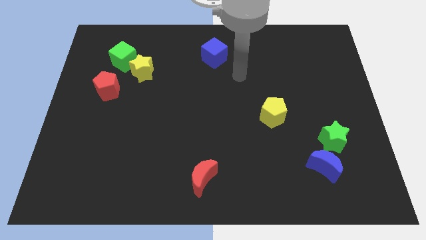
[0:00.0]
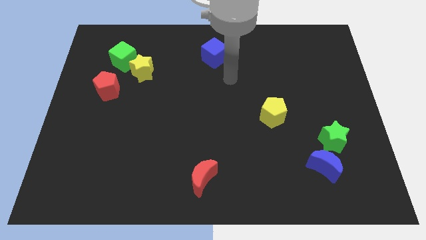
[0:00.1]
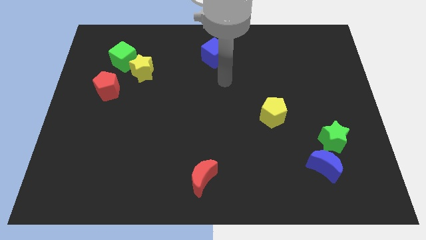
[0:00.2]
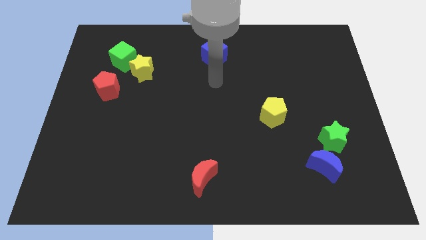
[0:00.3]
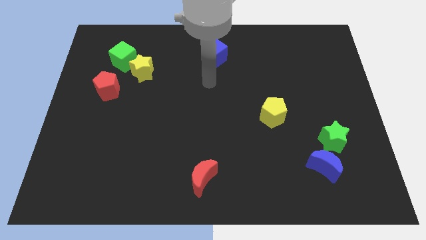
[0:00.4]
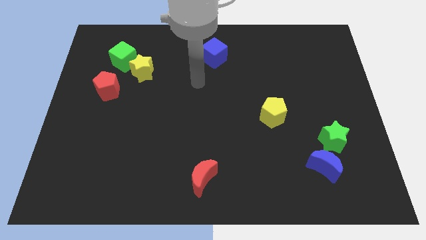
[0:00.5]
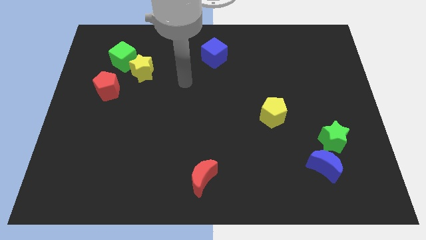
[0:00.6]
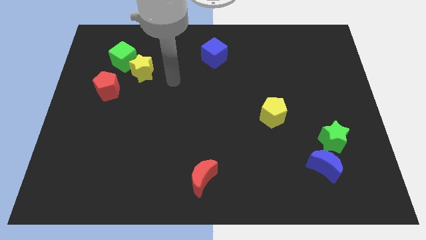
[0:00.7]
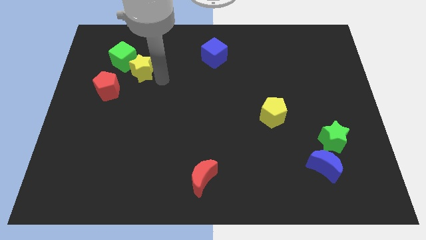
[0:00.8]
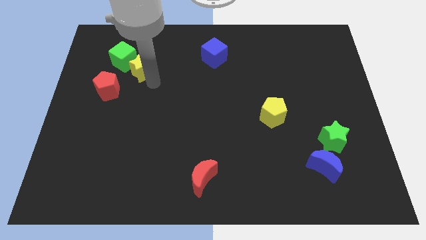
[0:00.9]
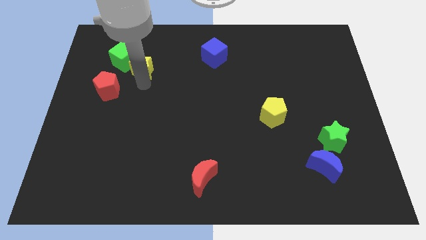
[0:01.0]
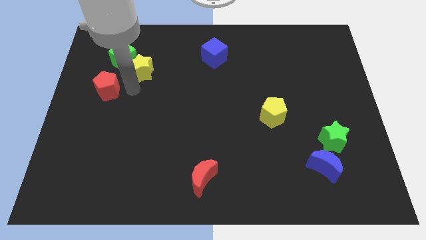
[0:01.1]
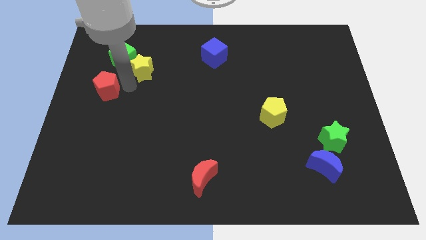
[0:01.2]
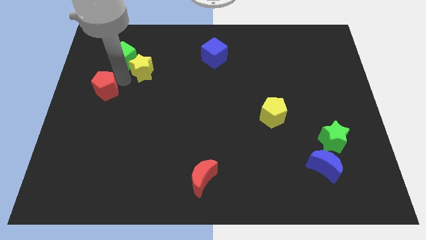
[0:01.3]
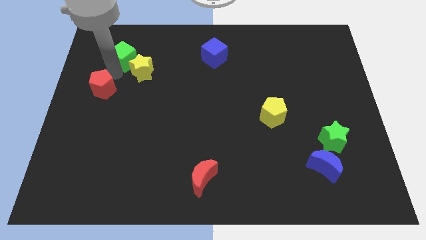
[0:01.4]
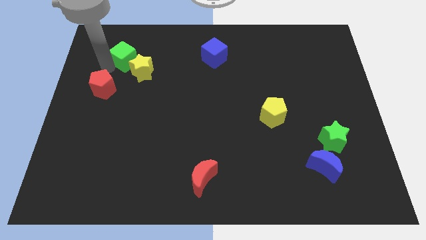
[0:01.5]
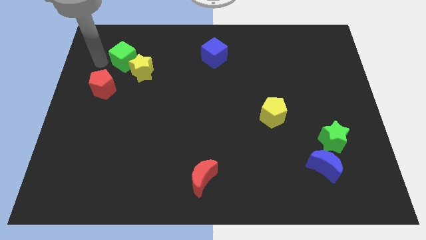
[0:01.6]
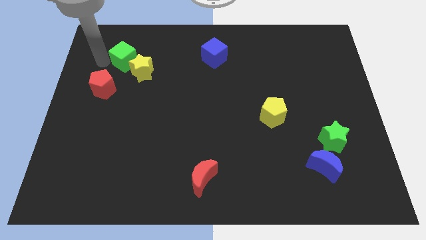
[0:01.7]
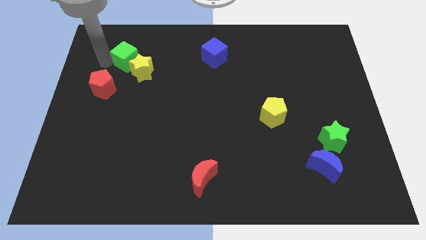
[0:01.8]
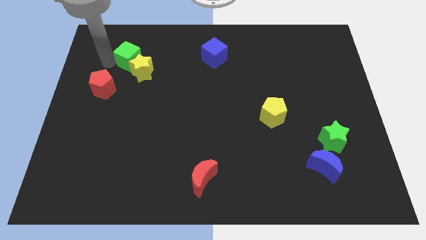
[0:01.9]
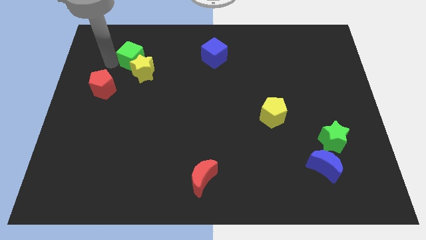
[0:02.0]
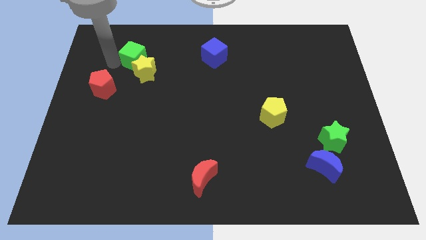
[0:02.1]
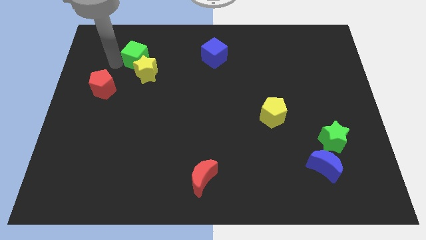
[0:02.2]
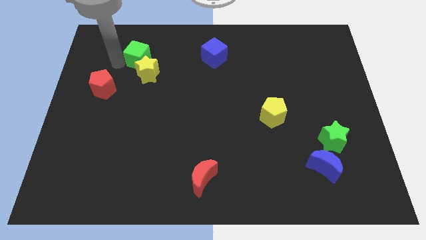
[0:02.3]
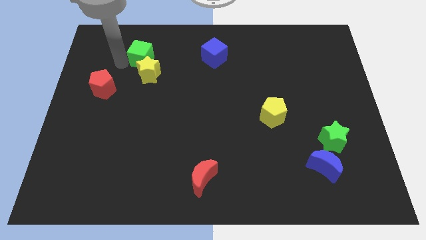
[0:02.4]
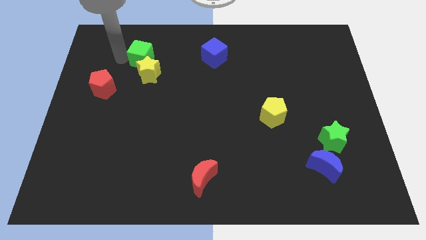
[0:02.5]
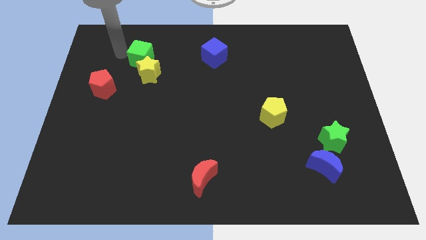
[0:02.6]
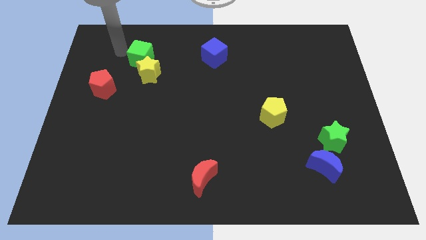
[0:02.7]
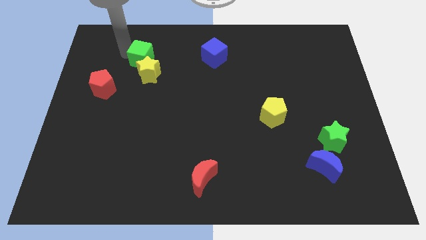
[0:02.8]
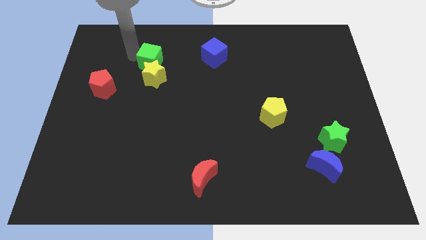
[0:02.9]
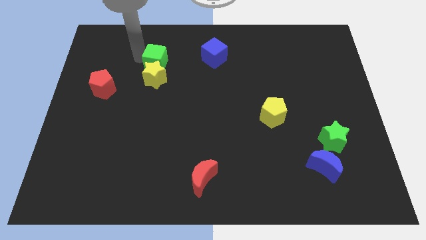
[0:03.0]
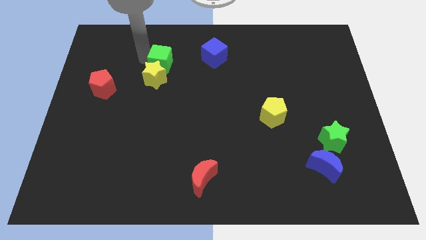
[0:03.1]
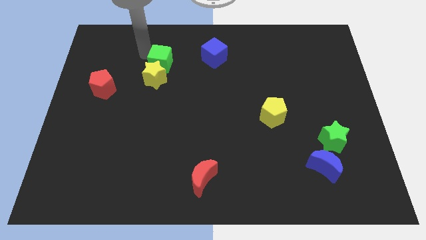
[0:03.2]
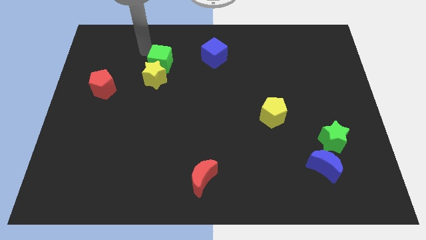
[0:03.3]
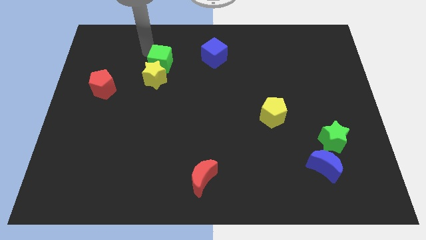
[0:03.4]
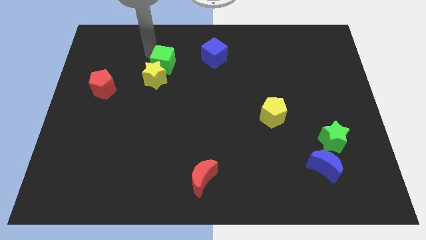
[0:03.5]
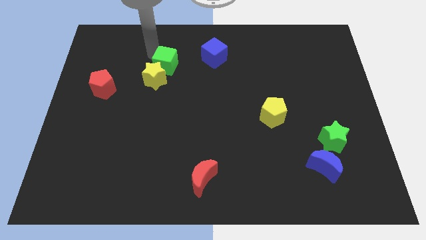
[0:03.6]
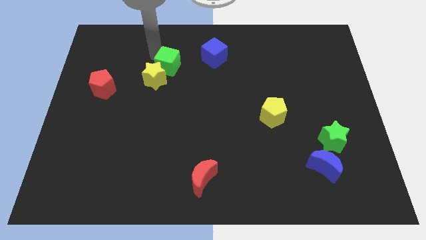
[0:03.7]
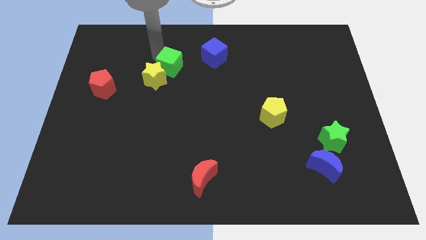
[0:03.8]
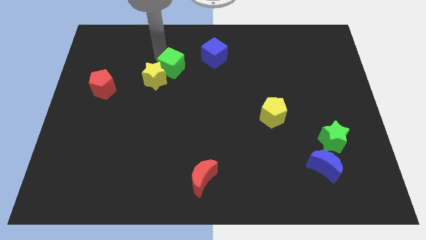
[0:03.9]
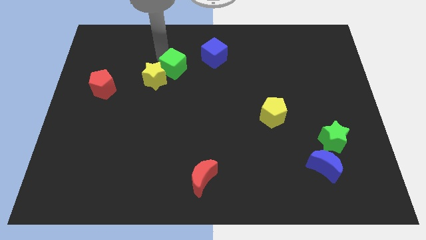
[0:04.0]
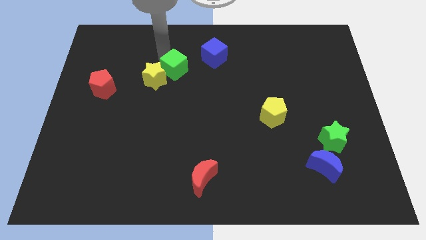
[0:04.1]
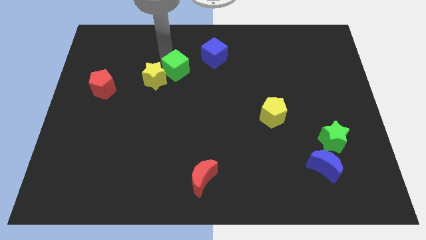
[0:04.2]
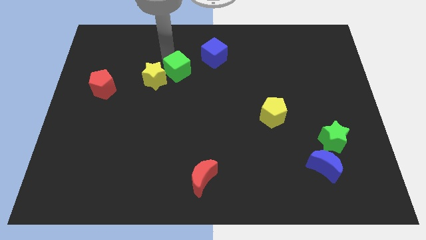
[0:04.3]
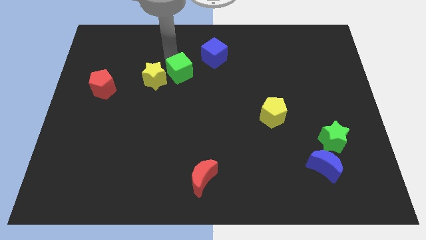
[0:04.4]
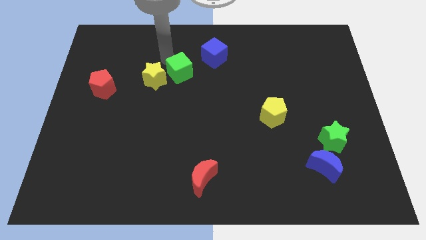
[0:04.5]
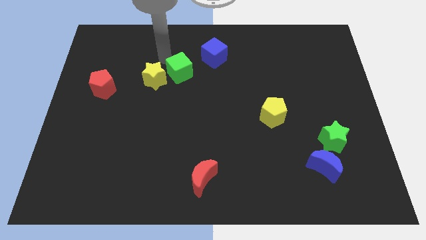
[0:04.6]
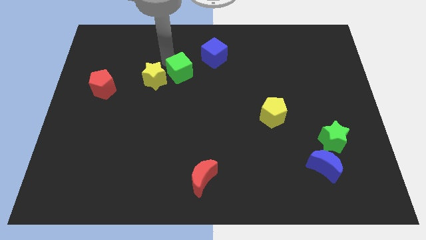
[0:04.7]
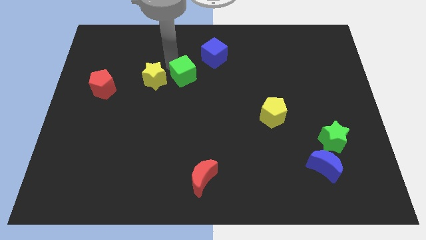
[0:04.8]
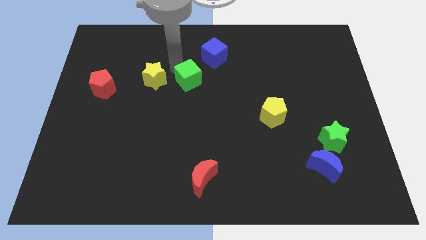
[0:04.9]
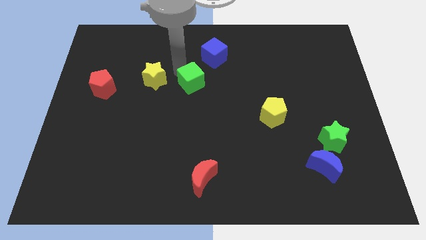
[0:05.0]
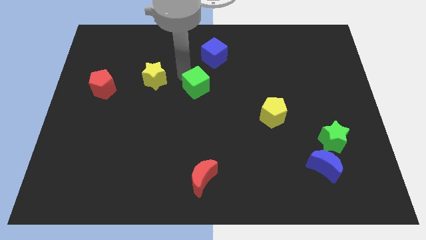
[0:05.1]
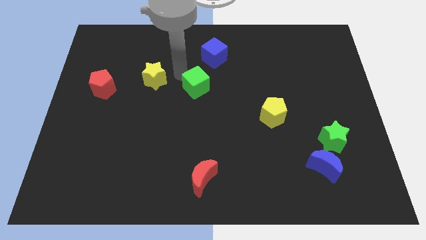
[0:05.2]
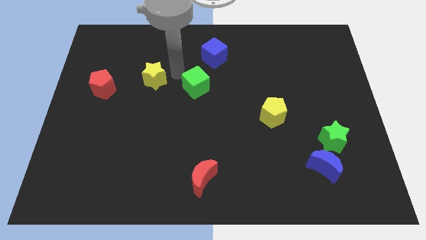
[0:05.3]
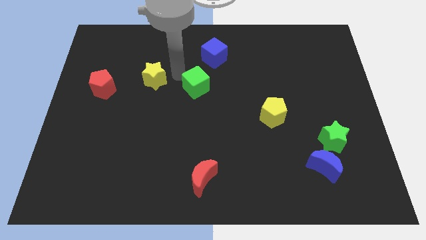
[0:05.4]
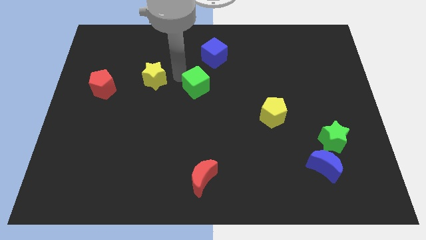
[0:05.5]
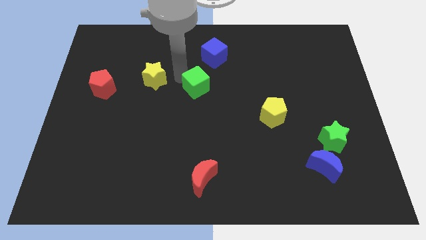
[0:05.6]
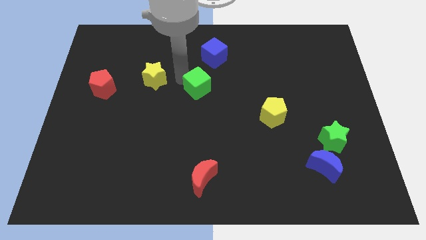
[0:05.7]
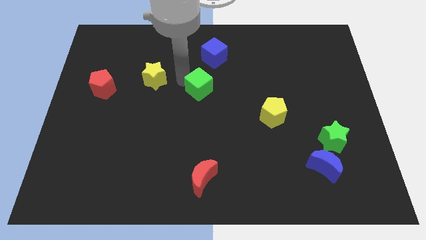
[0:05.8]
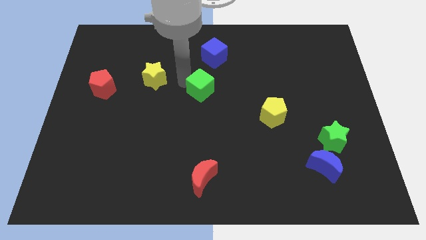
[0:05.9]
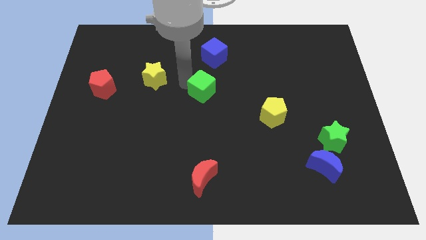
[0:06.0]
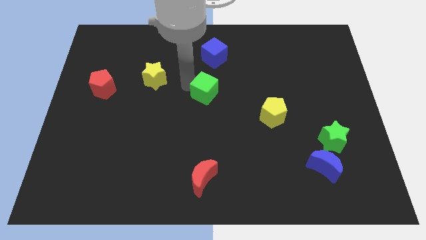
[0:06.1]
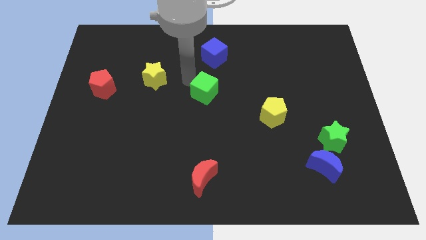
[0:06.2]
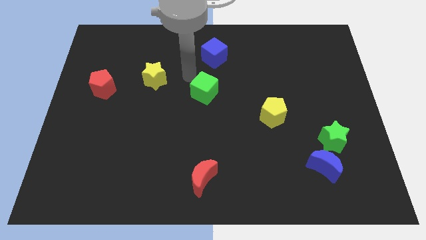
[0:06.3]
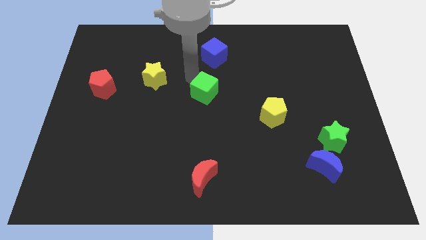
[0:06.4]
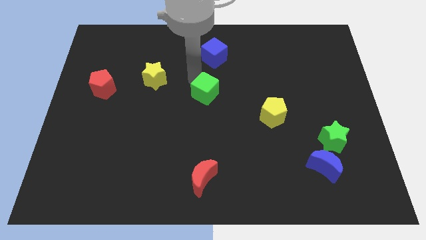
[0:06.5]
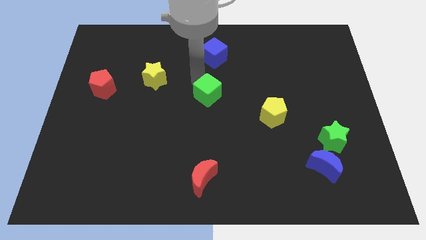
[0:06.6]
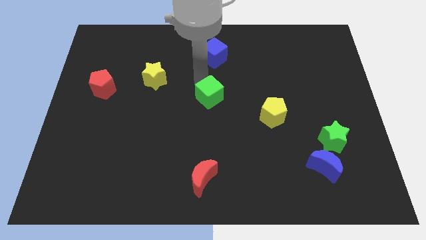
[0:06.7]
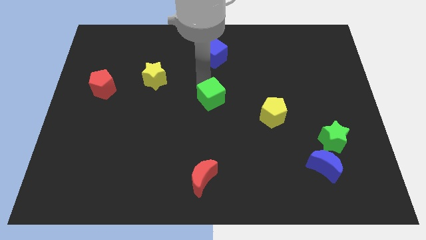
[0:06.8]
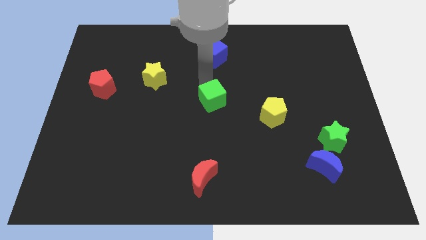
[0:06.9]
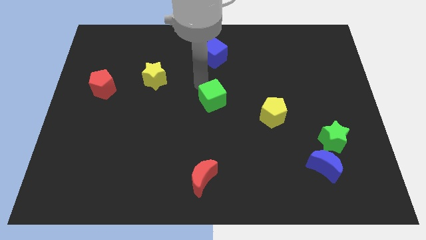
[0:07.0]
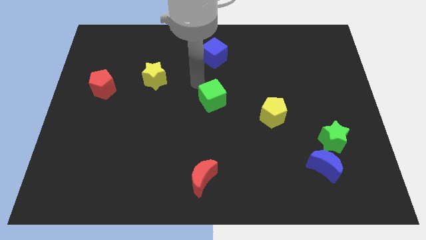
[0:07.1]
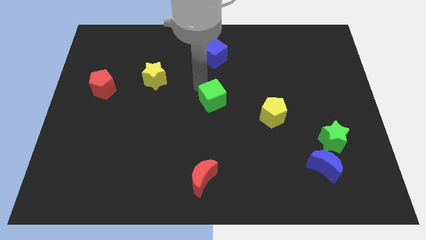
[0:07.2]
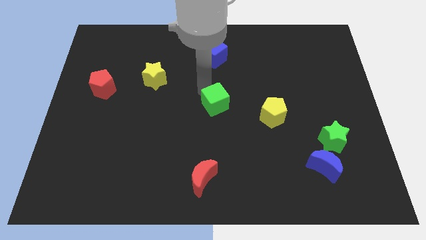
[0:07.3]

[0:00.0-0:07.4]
slide the green cube just left of the yellow pentagon

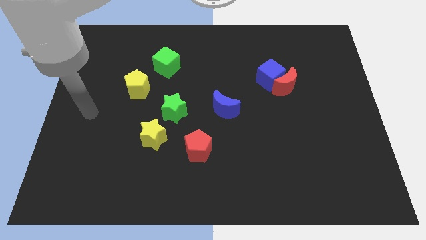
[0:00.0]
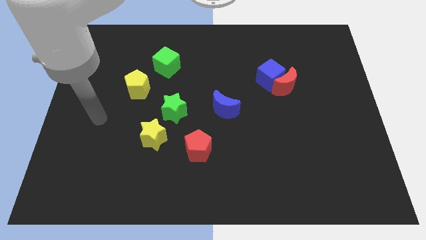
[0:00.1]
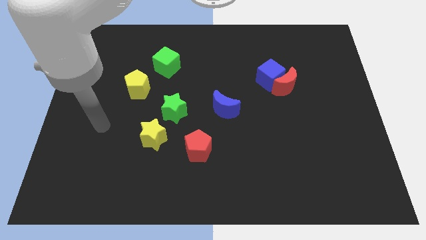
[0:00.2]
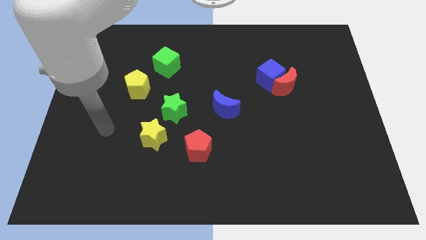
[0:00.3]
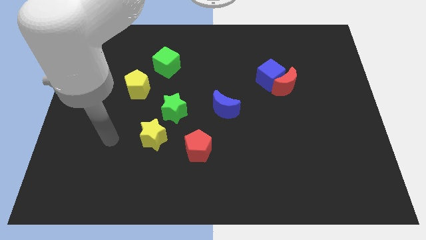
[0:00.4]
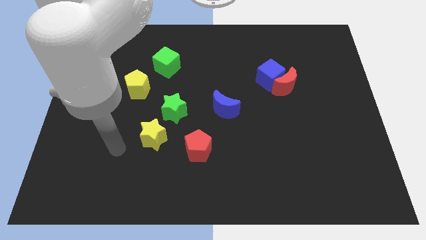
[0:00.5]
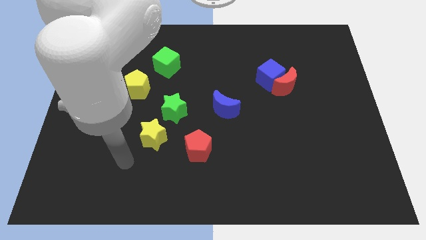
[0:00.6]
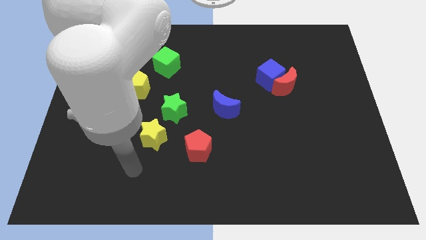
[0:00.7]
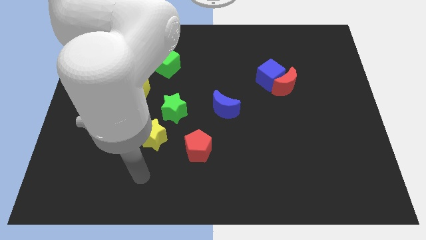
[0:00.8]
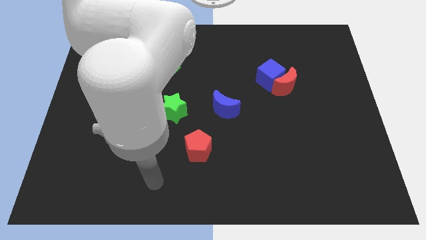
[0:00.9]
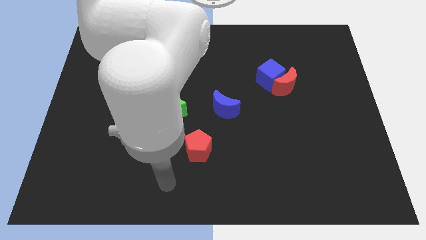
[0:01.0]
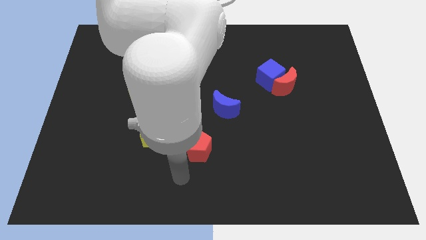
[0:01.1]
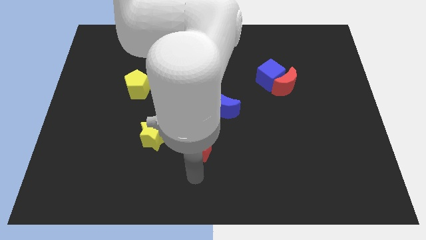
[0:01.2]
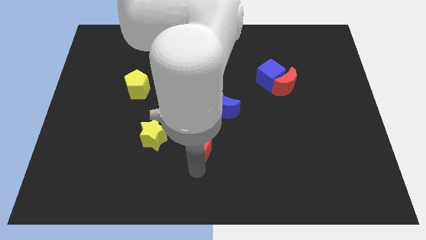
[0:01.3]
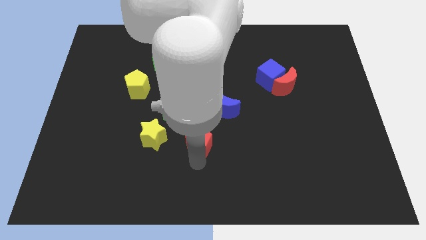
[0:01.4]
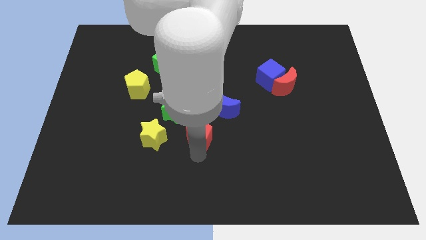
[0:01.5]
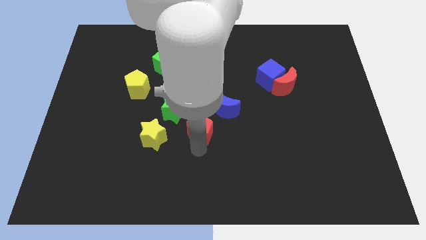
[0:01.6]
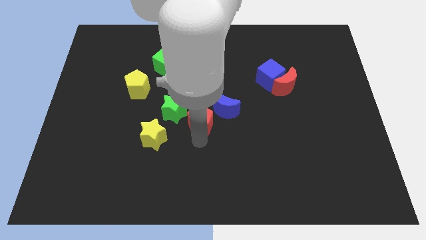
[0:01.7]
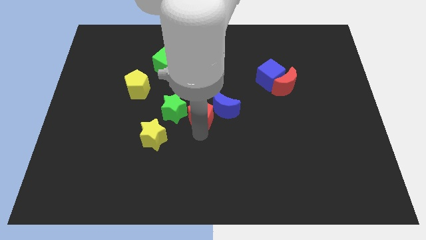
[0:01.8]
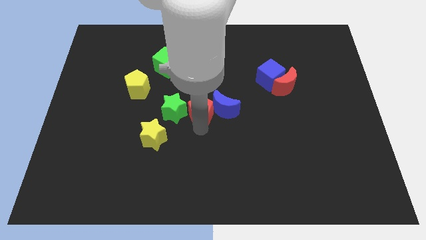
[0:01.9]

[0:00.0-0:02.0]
slide the red pentagon to the top left of the blue moon
